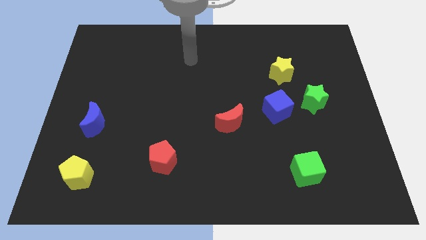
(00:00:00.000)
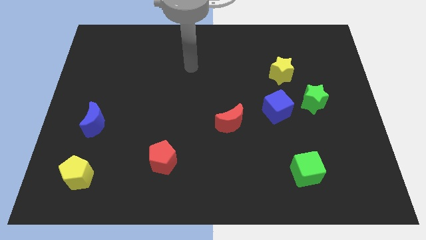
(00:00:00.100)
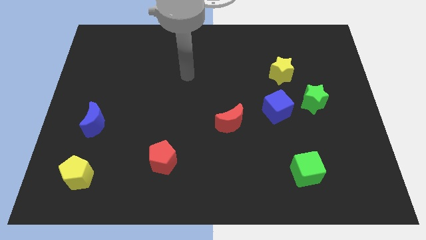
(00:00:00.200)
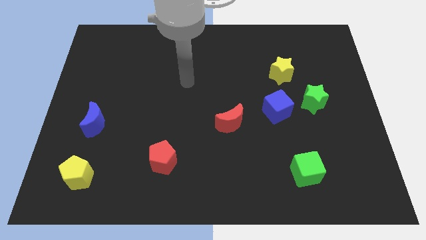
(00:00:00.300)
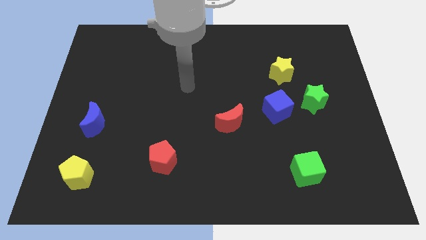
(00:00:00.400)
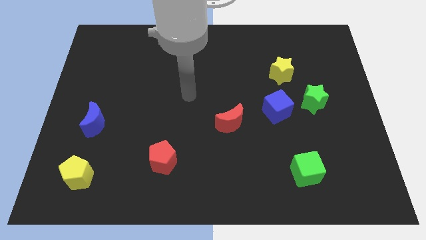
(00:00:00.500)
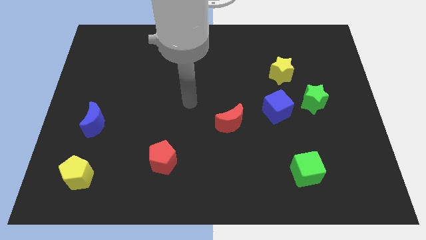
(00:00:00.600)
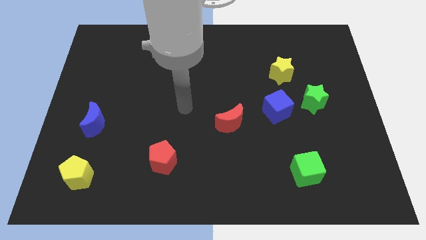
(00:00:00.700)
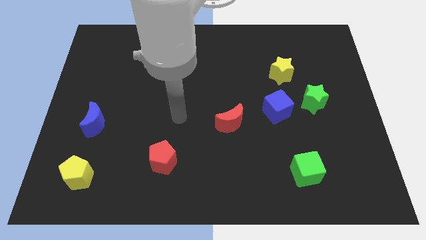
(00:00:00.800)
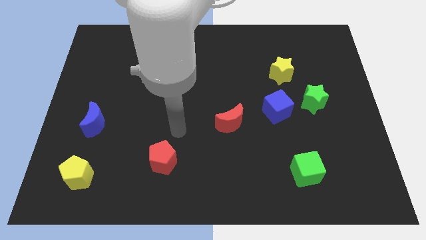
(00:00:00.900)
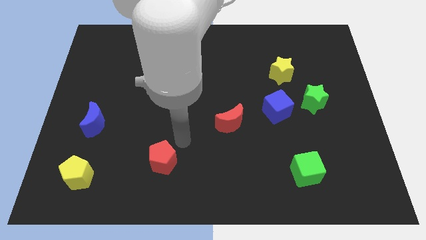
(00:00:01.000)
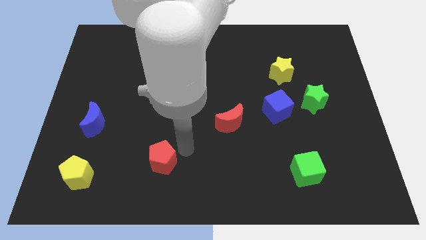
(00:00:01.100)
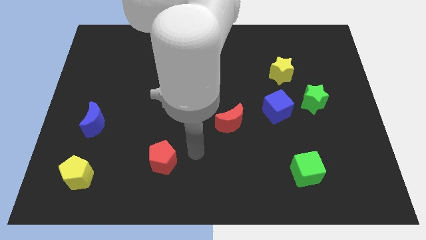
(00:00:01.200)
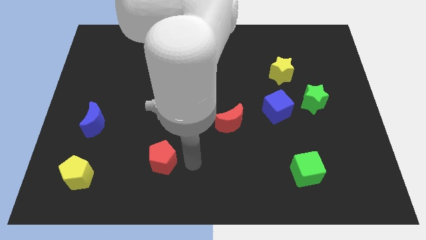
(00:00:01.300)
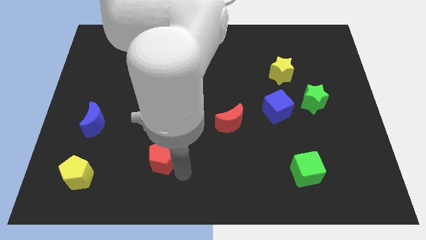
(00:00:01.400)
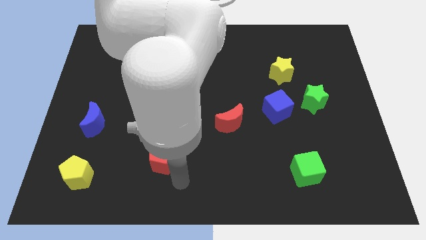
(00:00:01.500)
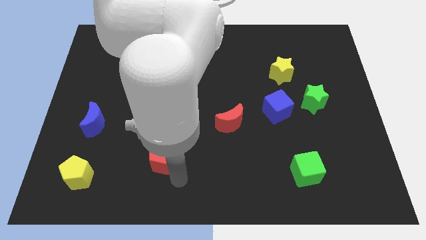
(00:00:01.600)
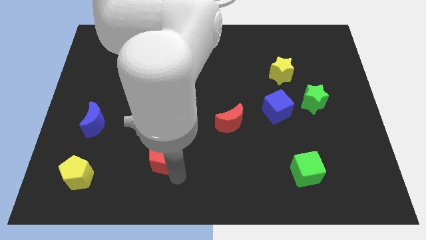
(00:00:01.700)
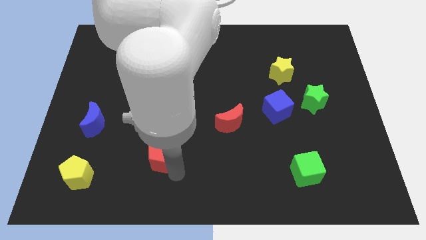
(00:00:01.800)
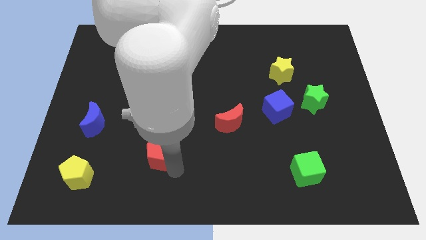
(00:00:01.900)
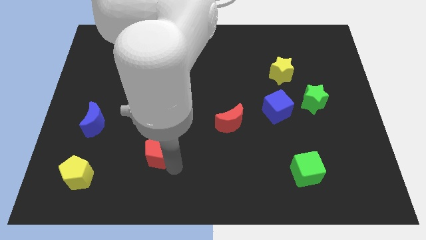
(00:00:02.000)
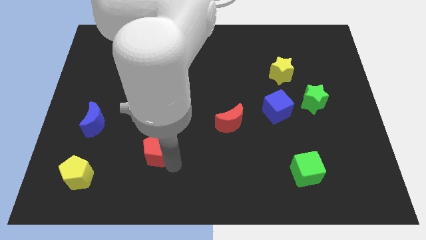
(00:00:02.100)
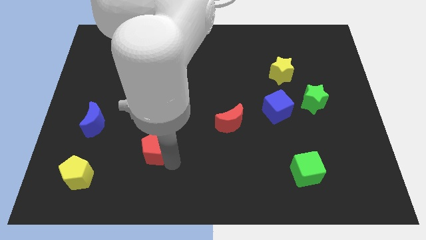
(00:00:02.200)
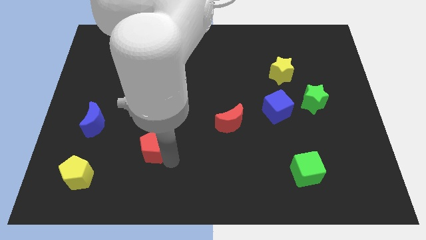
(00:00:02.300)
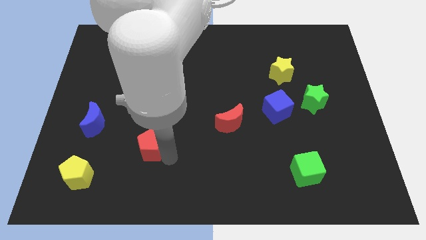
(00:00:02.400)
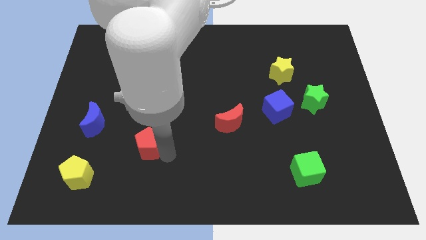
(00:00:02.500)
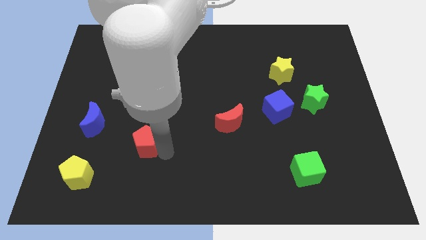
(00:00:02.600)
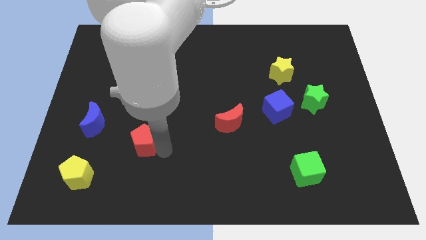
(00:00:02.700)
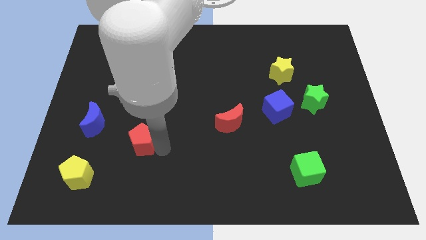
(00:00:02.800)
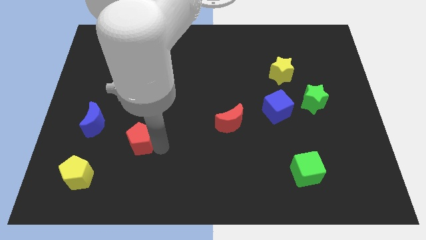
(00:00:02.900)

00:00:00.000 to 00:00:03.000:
move the red pentagon upwards and then left a little bit

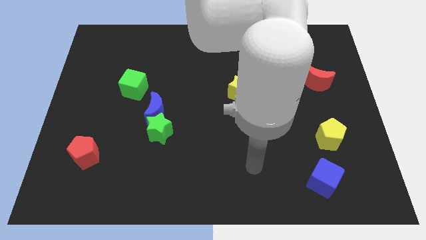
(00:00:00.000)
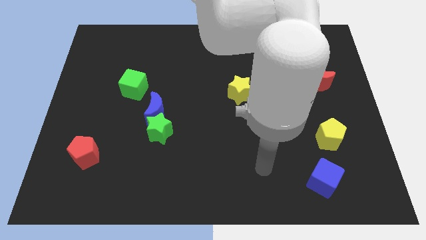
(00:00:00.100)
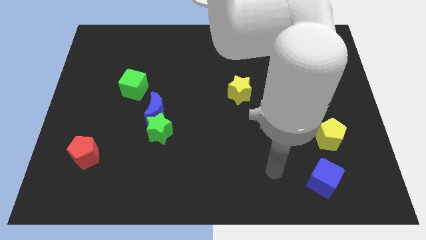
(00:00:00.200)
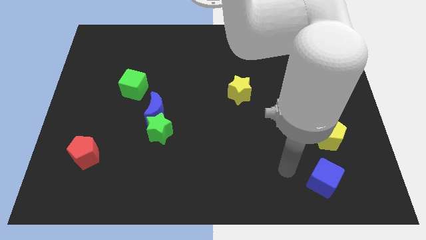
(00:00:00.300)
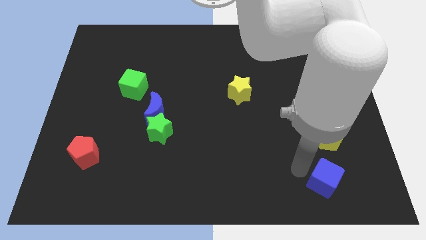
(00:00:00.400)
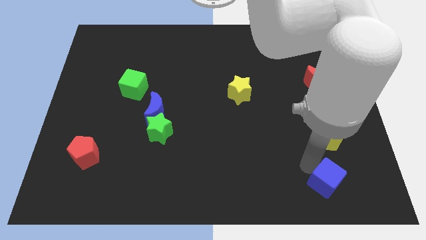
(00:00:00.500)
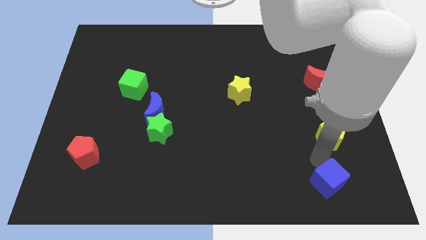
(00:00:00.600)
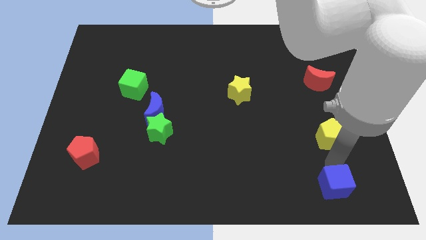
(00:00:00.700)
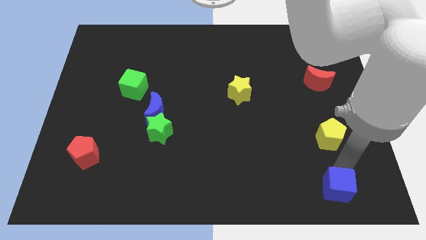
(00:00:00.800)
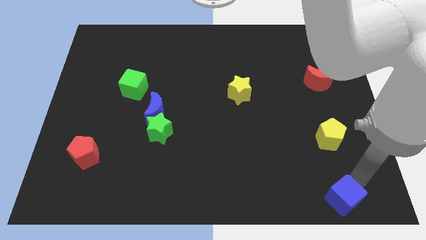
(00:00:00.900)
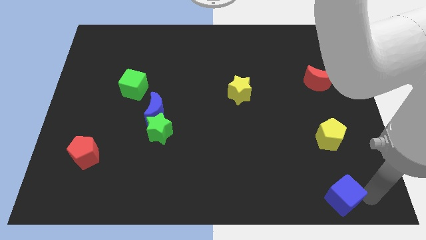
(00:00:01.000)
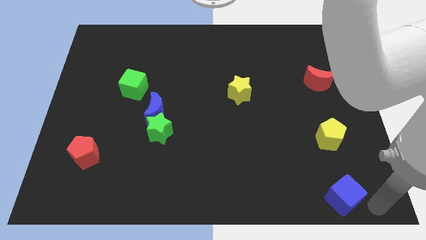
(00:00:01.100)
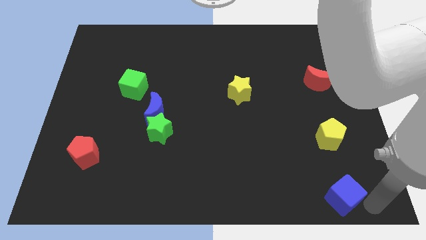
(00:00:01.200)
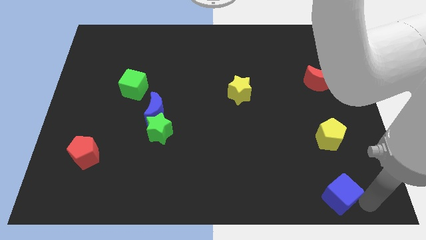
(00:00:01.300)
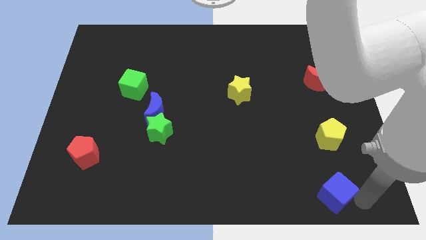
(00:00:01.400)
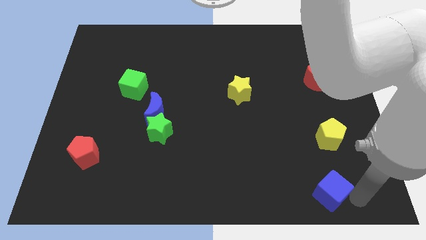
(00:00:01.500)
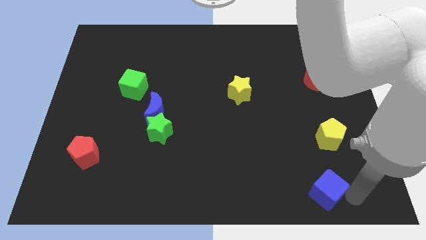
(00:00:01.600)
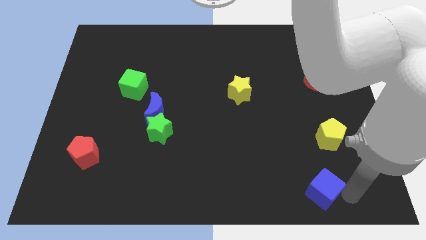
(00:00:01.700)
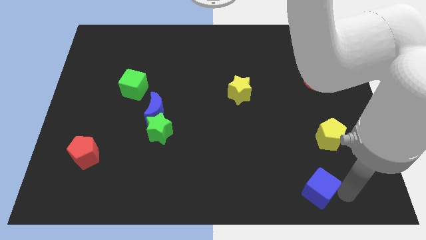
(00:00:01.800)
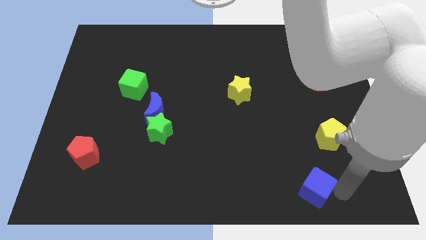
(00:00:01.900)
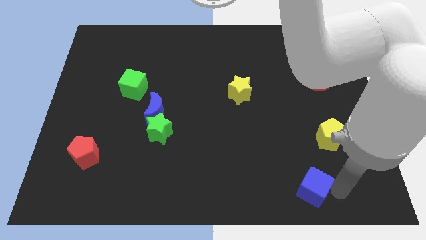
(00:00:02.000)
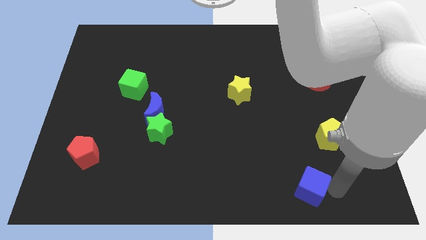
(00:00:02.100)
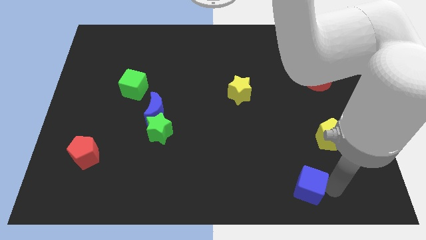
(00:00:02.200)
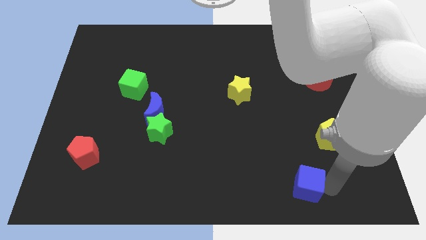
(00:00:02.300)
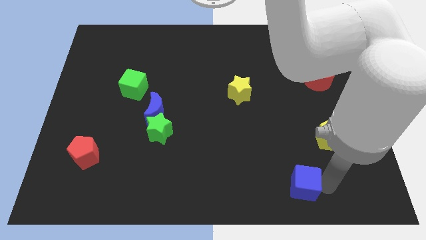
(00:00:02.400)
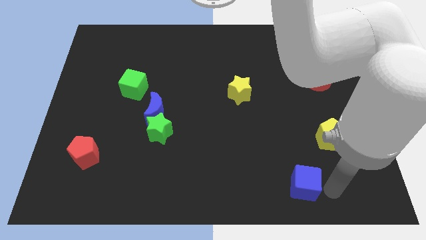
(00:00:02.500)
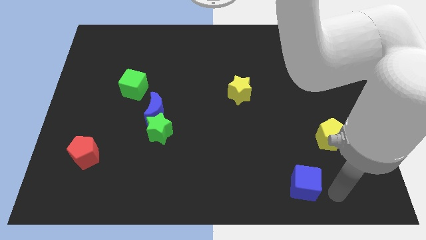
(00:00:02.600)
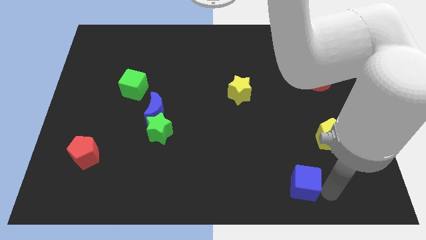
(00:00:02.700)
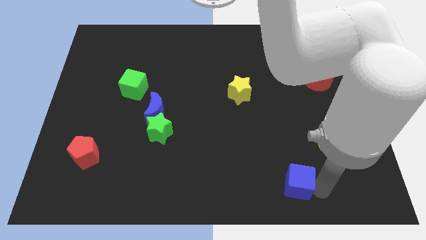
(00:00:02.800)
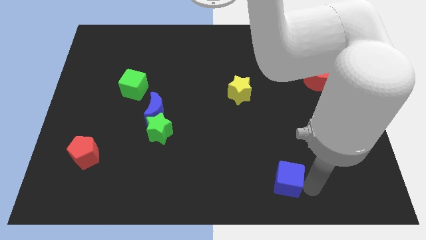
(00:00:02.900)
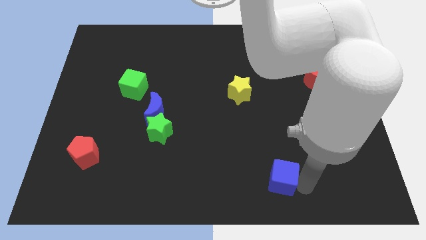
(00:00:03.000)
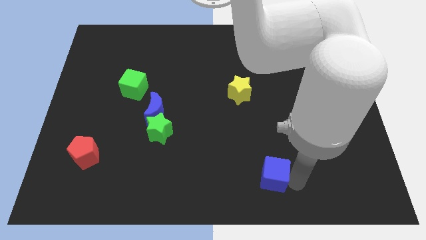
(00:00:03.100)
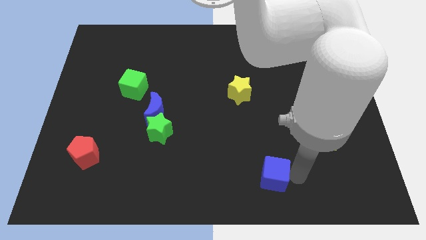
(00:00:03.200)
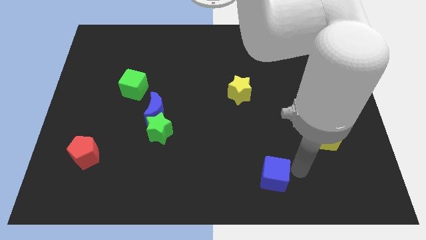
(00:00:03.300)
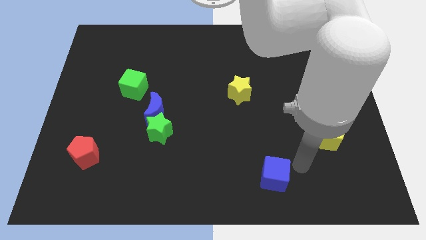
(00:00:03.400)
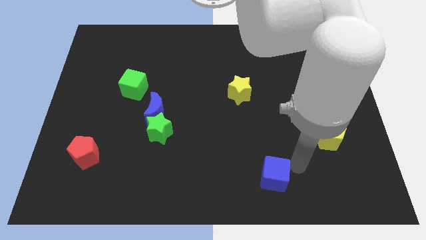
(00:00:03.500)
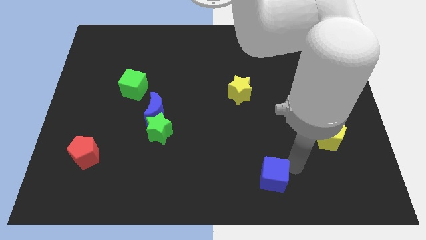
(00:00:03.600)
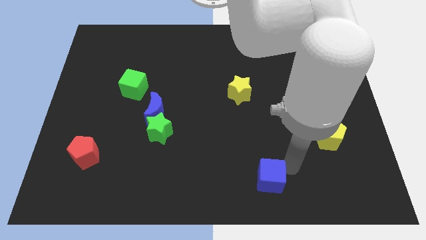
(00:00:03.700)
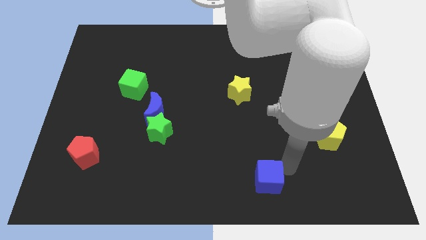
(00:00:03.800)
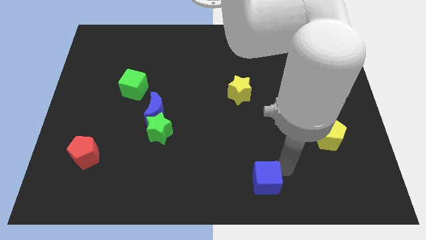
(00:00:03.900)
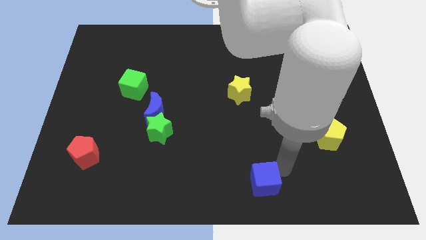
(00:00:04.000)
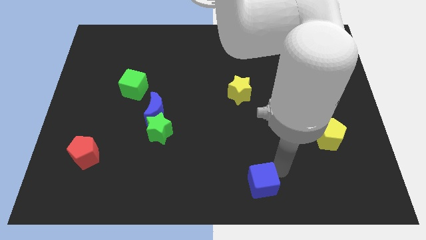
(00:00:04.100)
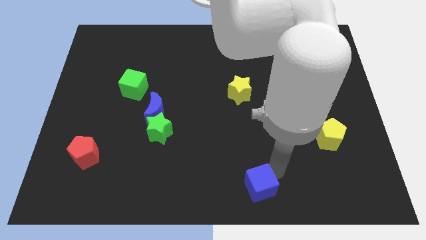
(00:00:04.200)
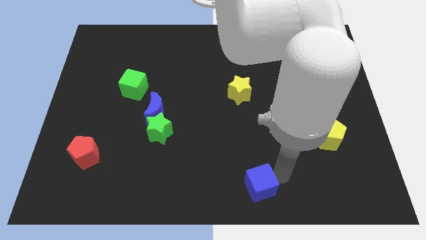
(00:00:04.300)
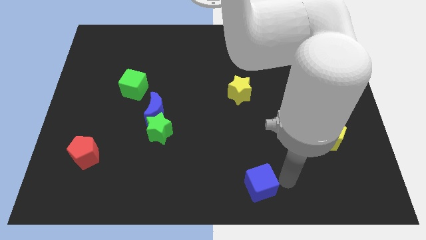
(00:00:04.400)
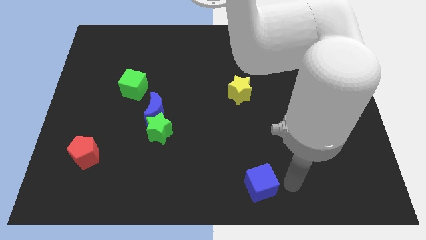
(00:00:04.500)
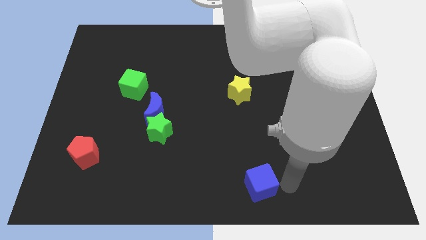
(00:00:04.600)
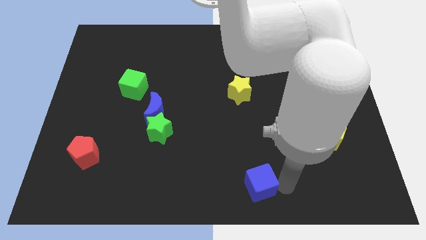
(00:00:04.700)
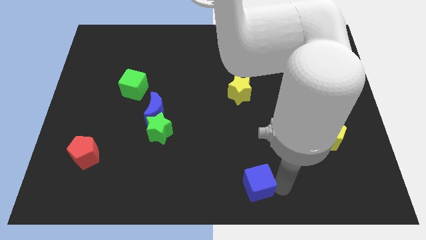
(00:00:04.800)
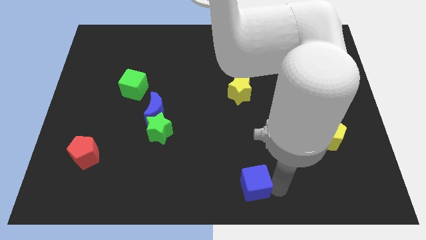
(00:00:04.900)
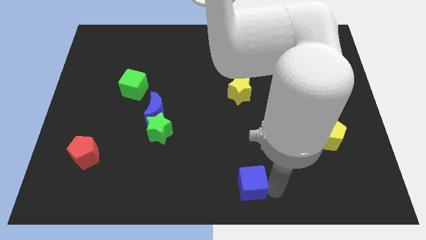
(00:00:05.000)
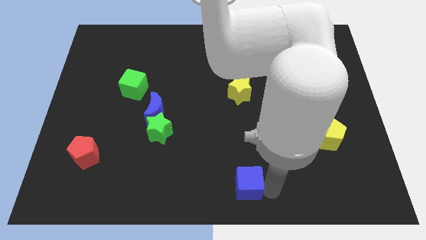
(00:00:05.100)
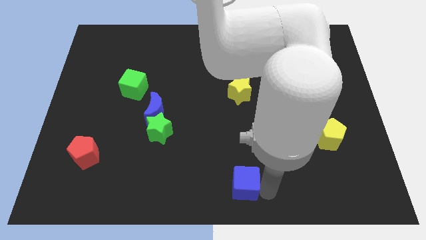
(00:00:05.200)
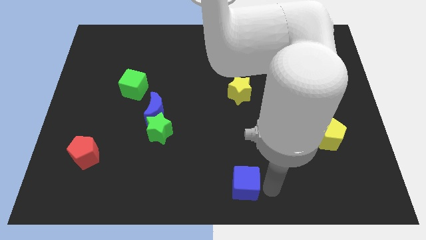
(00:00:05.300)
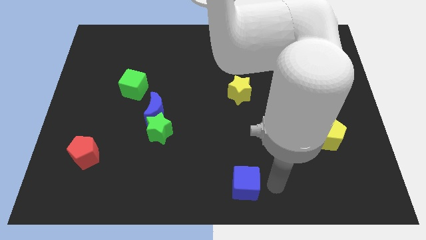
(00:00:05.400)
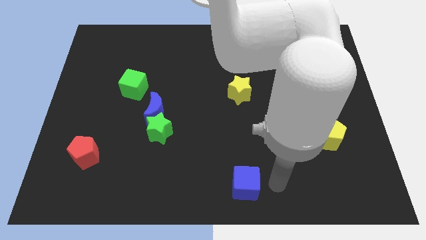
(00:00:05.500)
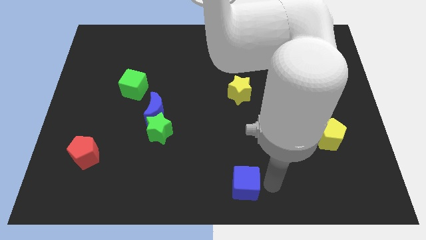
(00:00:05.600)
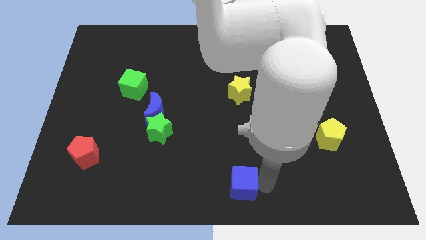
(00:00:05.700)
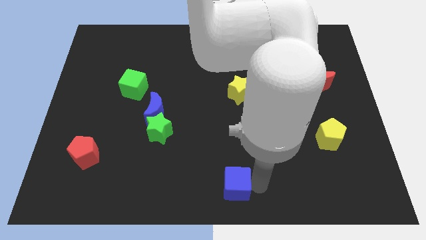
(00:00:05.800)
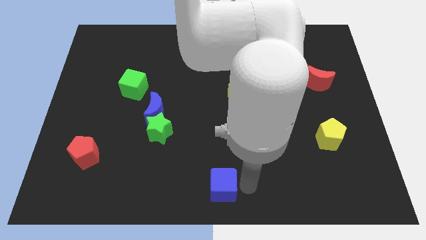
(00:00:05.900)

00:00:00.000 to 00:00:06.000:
move the blue cube to the left
